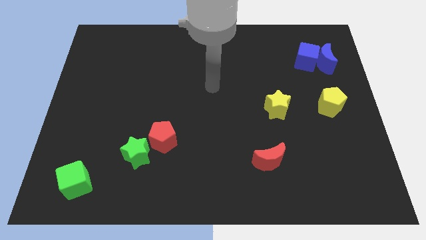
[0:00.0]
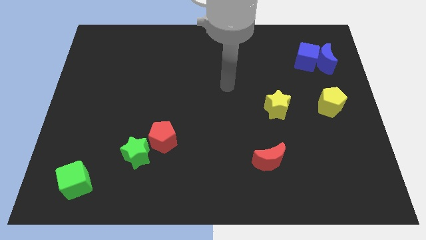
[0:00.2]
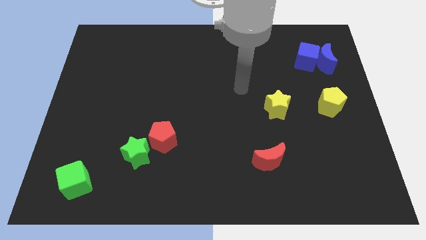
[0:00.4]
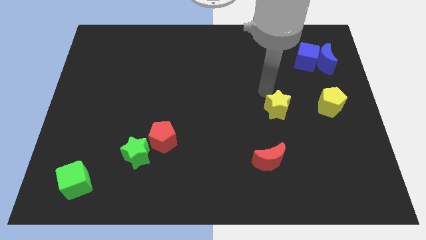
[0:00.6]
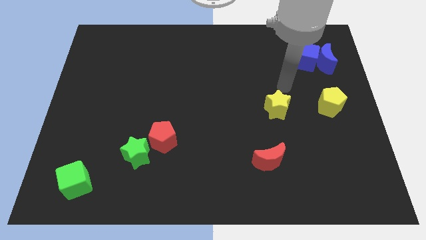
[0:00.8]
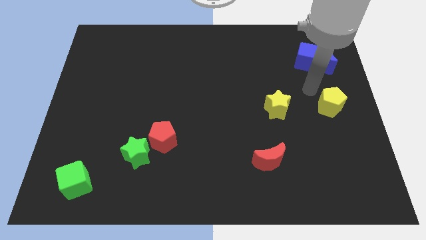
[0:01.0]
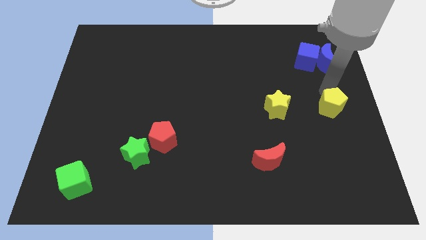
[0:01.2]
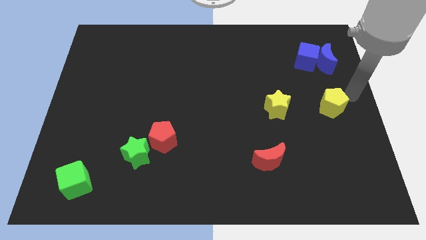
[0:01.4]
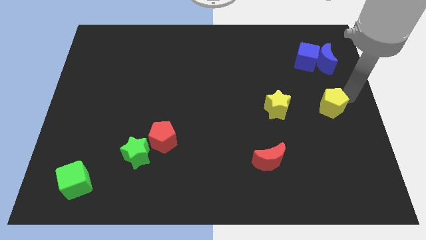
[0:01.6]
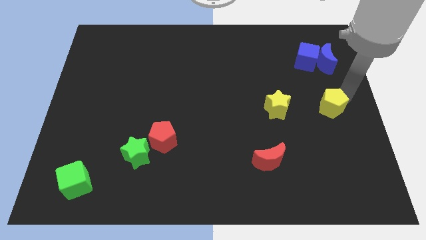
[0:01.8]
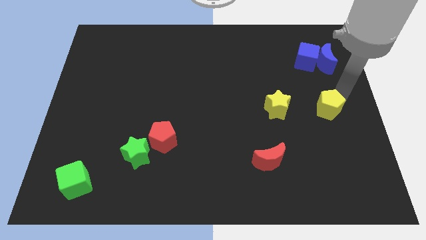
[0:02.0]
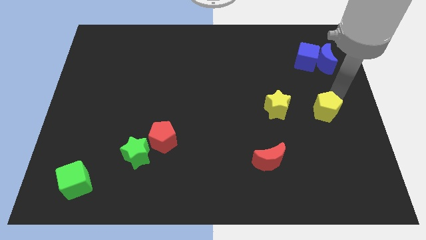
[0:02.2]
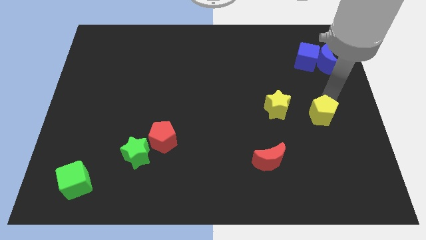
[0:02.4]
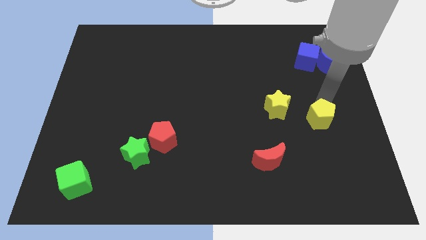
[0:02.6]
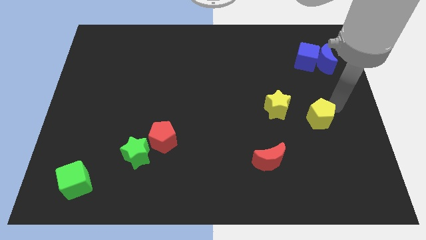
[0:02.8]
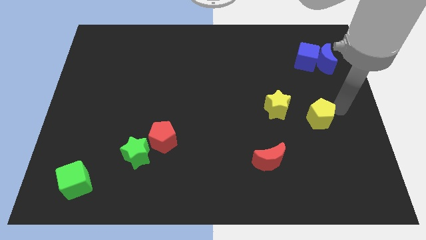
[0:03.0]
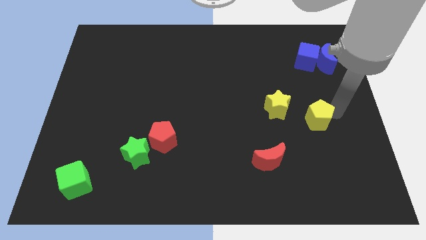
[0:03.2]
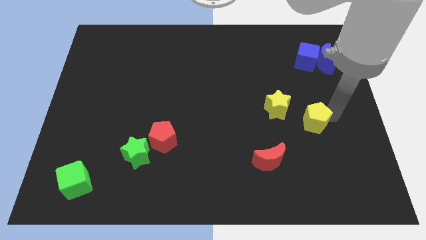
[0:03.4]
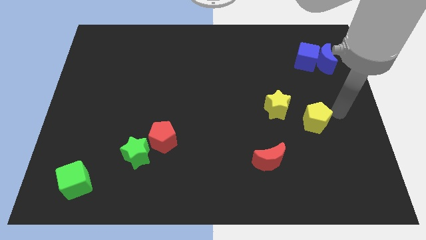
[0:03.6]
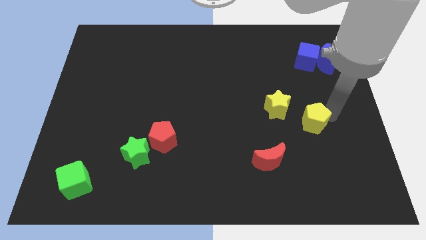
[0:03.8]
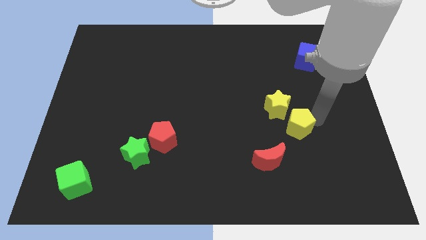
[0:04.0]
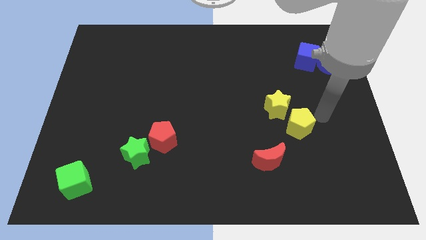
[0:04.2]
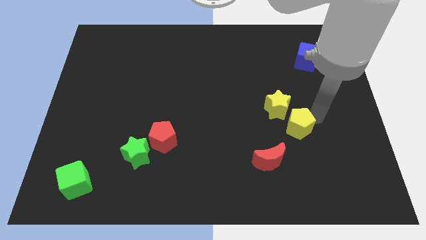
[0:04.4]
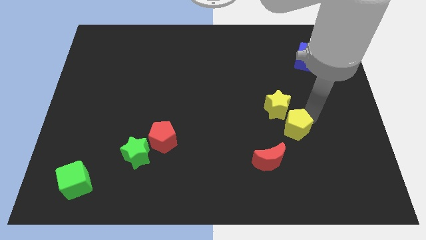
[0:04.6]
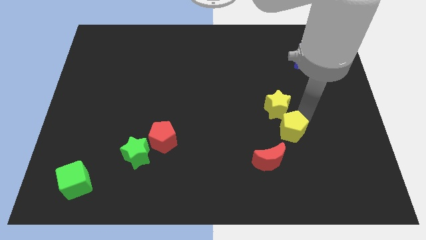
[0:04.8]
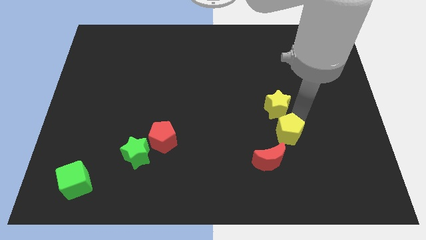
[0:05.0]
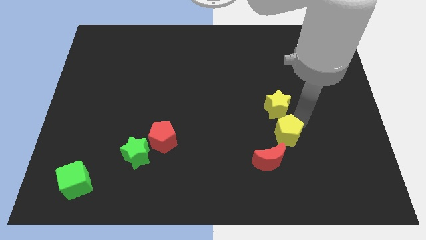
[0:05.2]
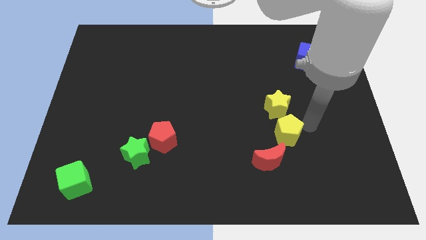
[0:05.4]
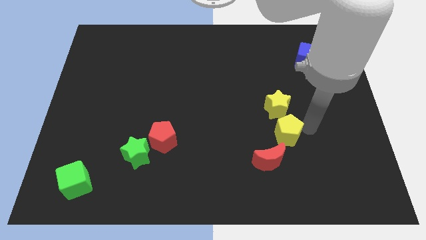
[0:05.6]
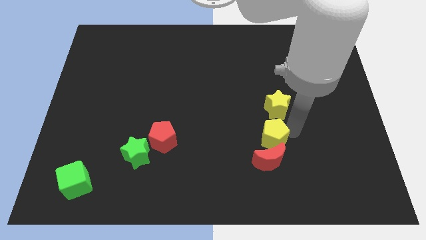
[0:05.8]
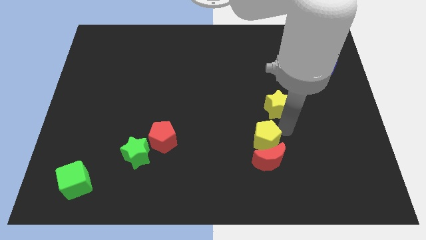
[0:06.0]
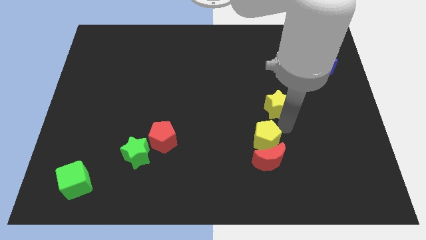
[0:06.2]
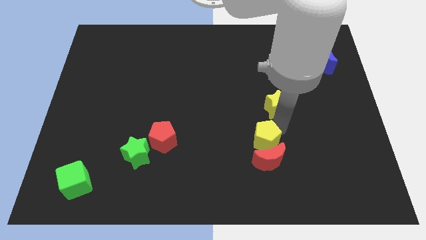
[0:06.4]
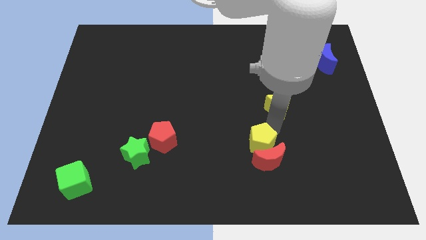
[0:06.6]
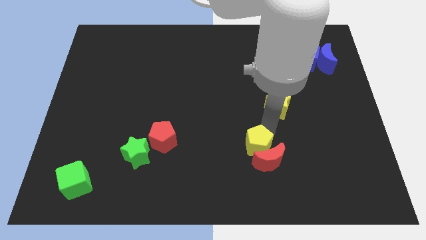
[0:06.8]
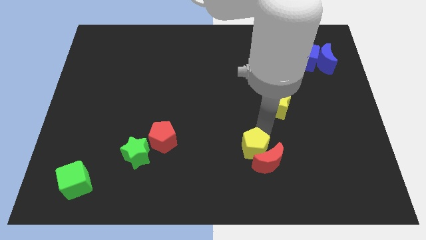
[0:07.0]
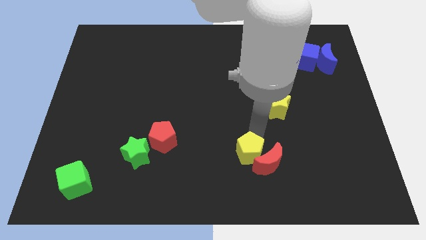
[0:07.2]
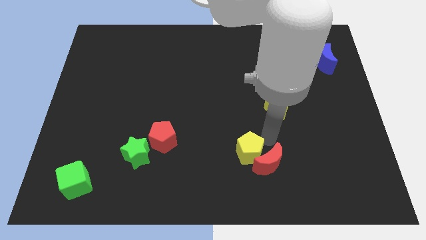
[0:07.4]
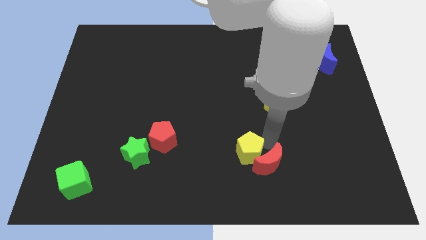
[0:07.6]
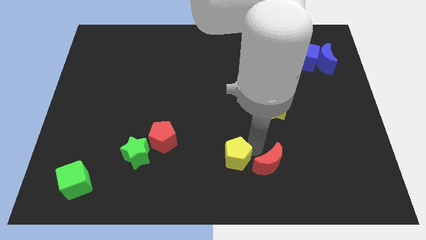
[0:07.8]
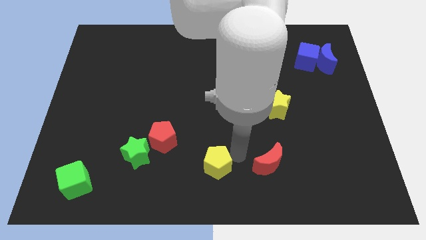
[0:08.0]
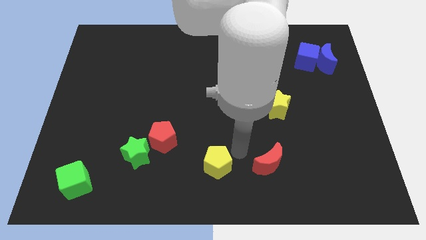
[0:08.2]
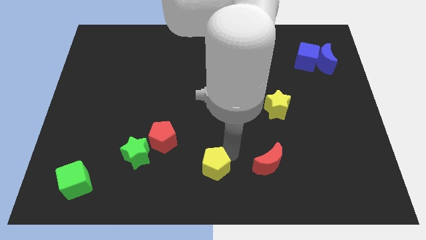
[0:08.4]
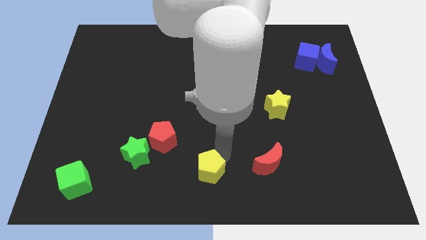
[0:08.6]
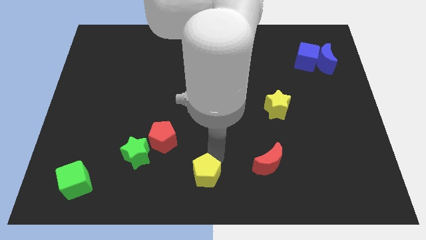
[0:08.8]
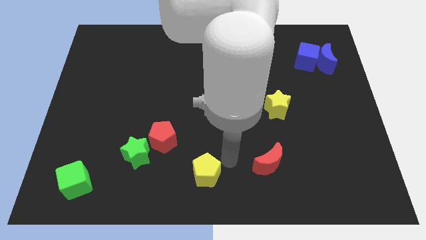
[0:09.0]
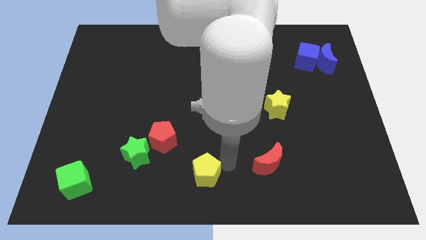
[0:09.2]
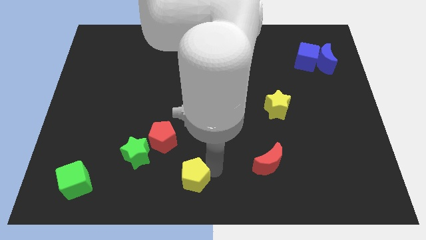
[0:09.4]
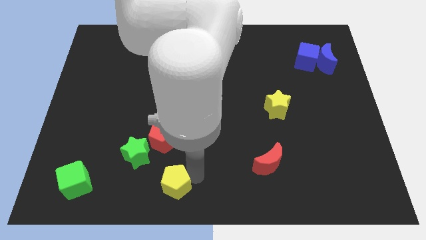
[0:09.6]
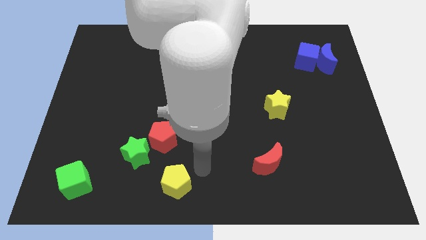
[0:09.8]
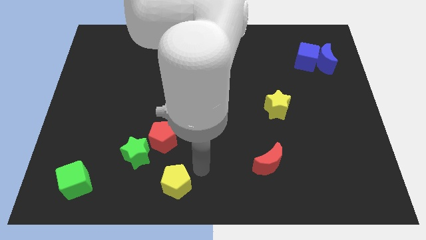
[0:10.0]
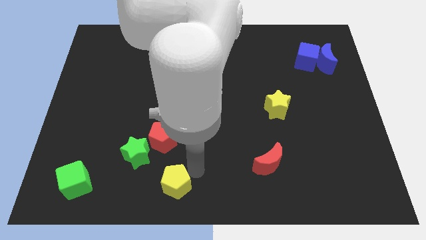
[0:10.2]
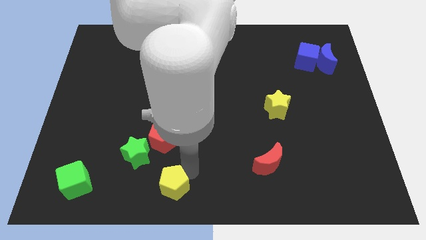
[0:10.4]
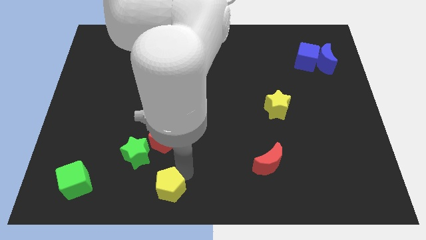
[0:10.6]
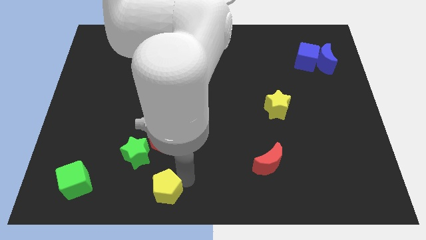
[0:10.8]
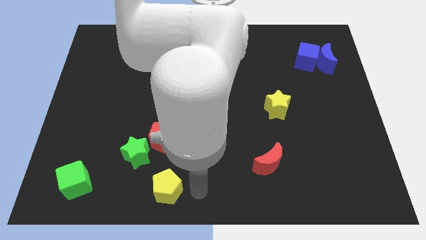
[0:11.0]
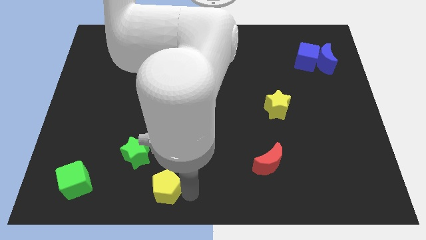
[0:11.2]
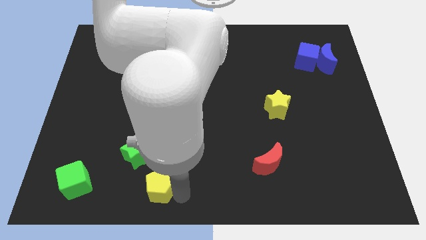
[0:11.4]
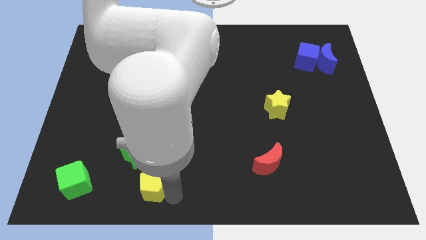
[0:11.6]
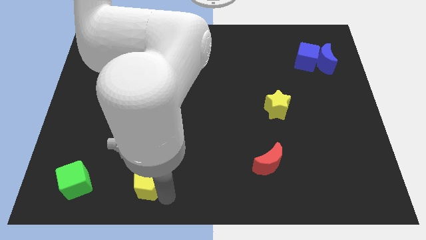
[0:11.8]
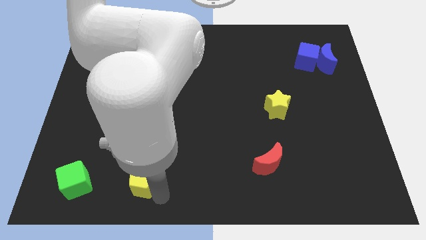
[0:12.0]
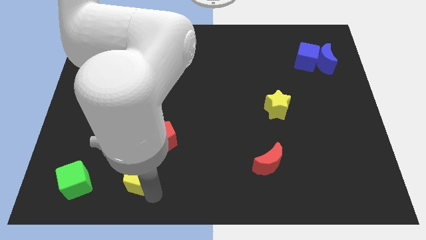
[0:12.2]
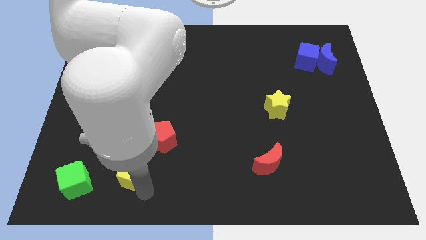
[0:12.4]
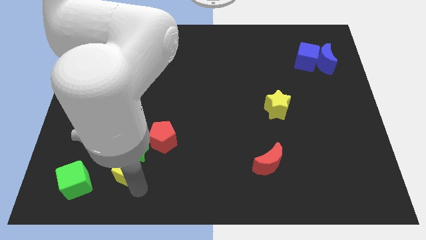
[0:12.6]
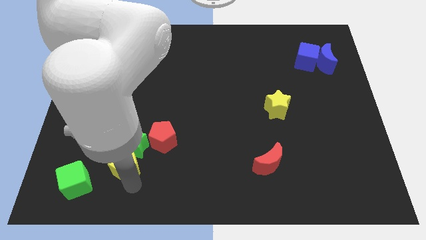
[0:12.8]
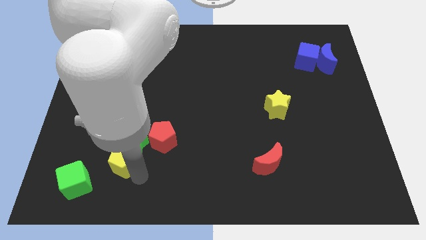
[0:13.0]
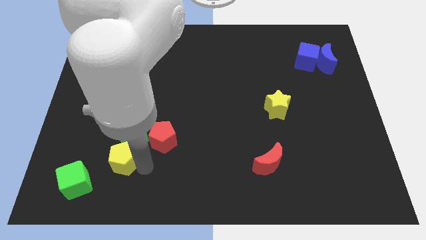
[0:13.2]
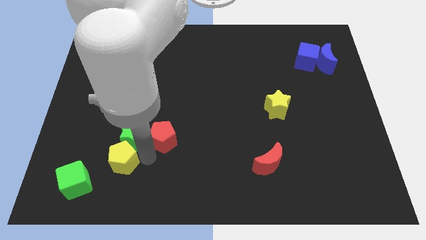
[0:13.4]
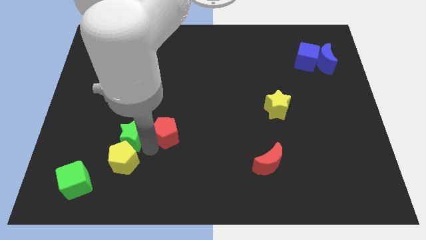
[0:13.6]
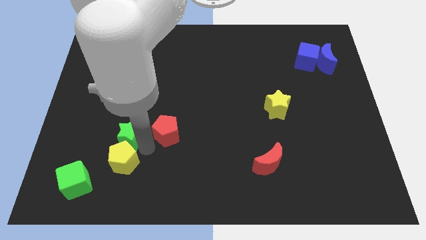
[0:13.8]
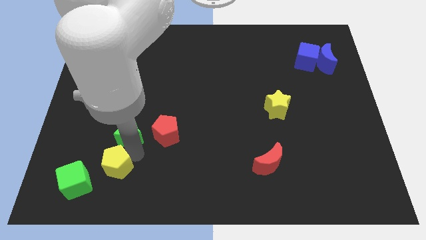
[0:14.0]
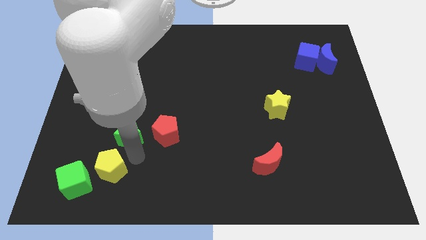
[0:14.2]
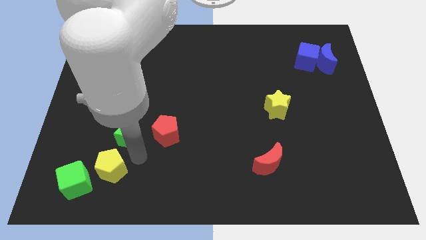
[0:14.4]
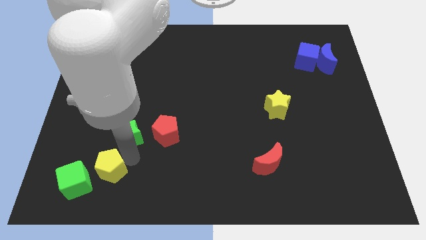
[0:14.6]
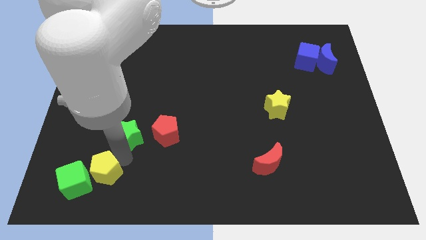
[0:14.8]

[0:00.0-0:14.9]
push the yellow pentagon to the green cube
